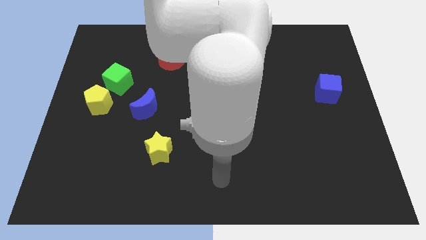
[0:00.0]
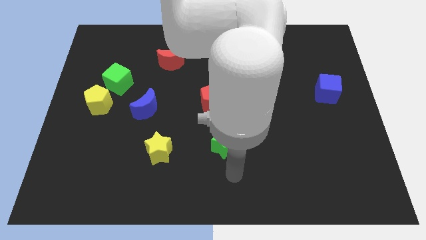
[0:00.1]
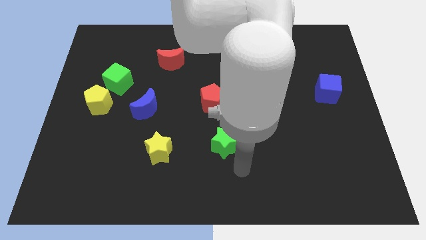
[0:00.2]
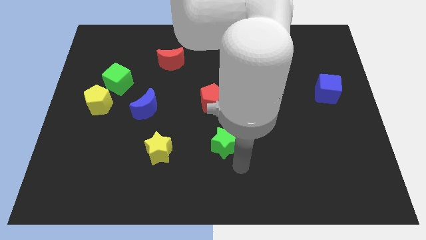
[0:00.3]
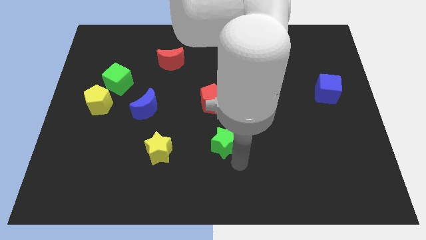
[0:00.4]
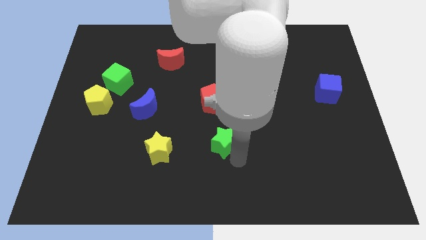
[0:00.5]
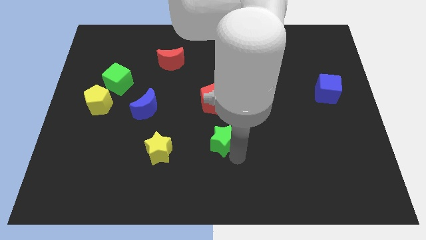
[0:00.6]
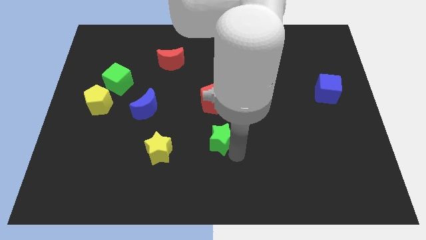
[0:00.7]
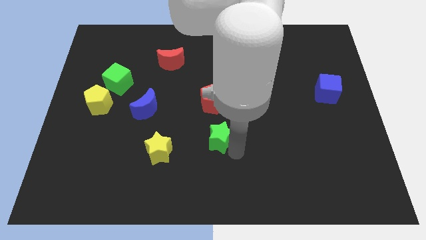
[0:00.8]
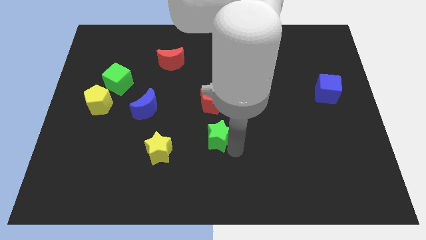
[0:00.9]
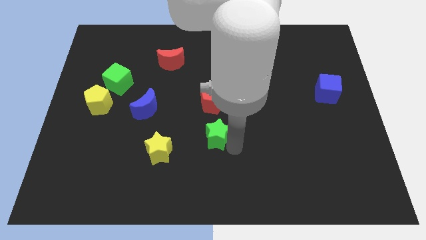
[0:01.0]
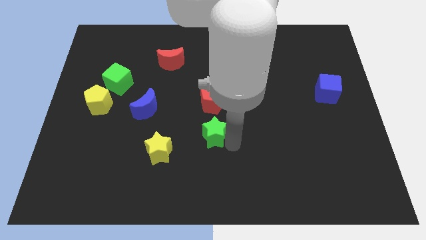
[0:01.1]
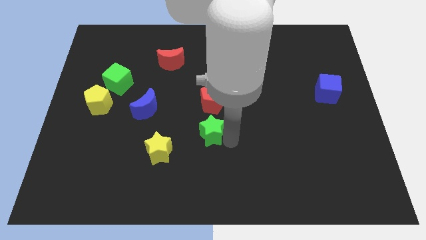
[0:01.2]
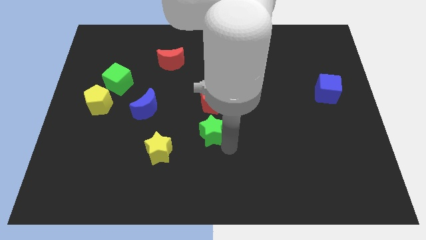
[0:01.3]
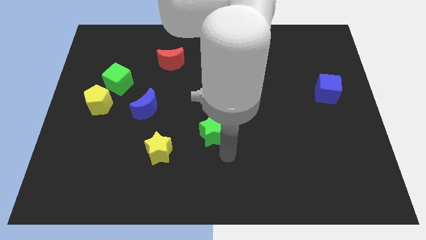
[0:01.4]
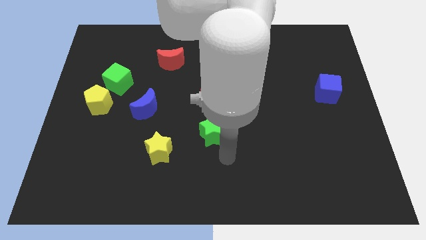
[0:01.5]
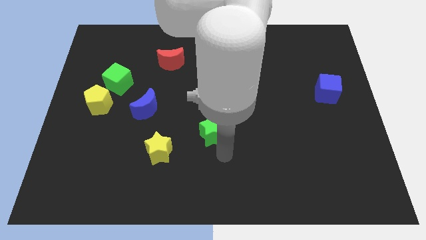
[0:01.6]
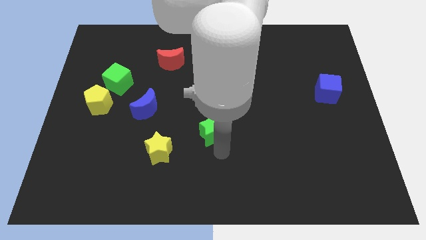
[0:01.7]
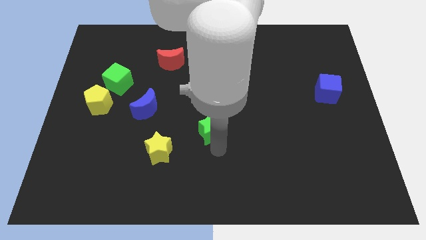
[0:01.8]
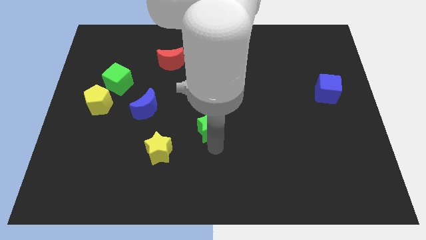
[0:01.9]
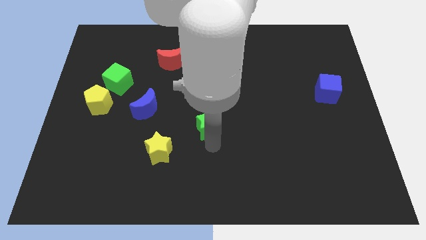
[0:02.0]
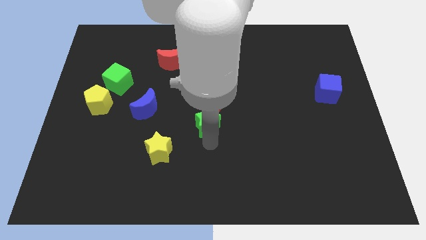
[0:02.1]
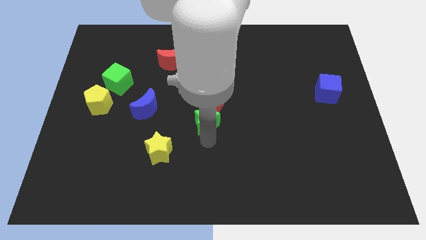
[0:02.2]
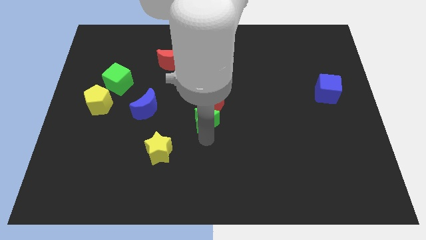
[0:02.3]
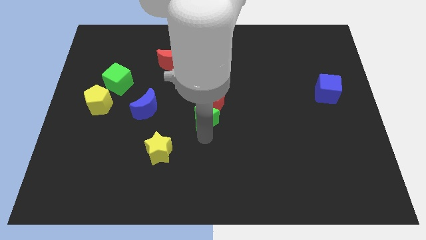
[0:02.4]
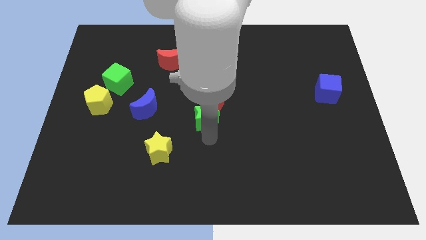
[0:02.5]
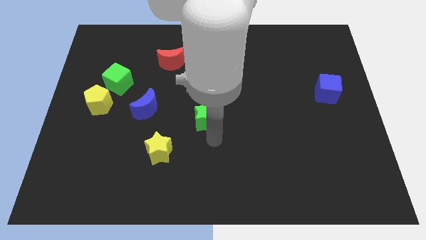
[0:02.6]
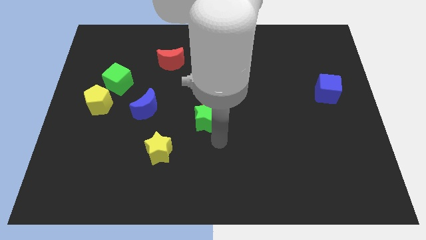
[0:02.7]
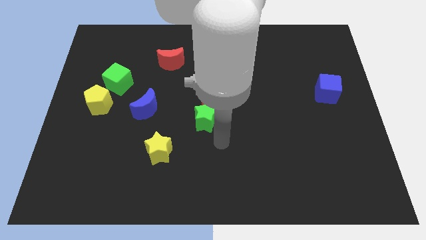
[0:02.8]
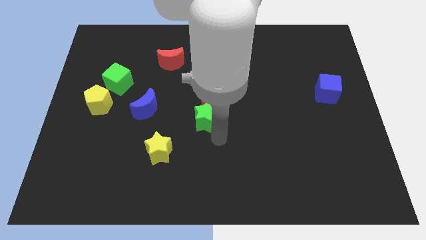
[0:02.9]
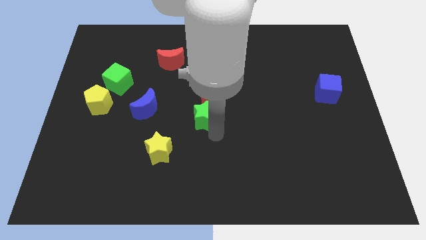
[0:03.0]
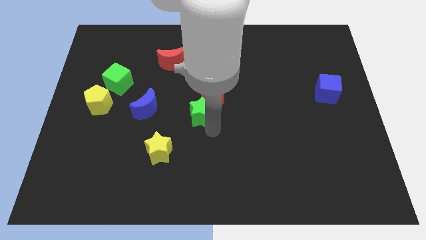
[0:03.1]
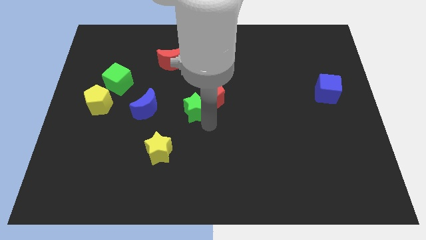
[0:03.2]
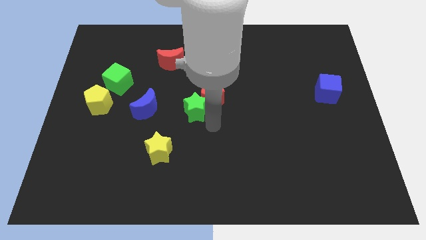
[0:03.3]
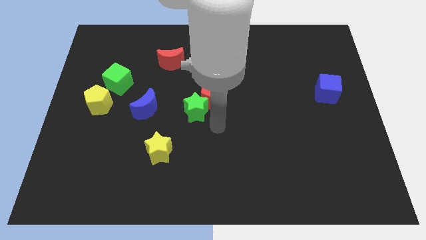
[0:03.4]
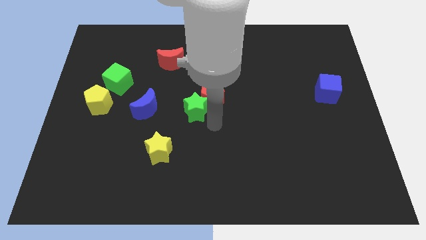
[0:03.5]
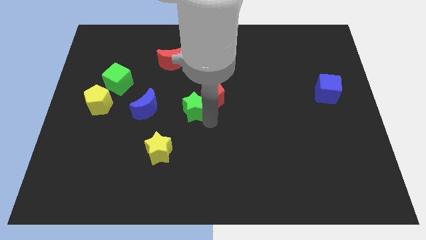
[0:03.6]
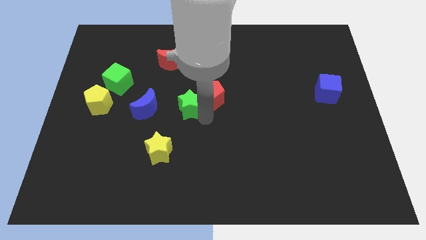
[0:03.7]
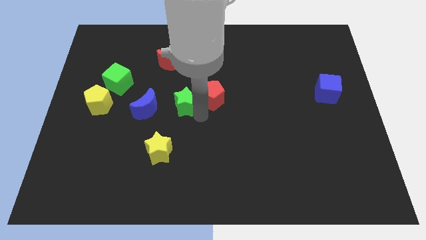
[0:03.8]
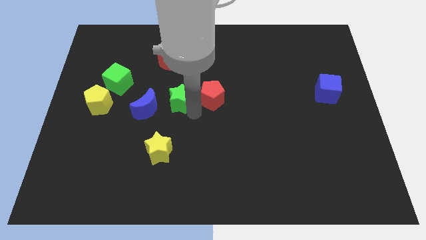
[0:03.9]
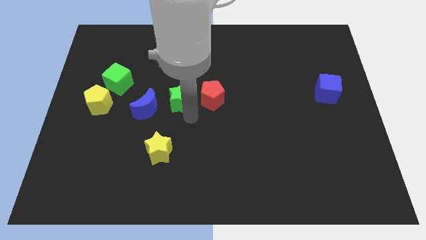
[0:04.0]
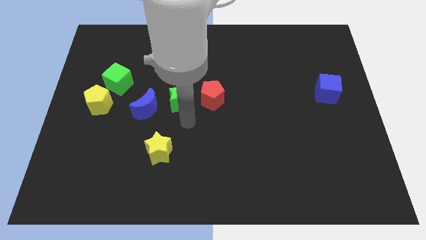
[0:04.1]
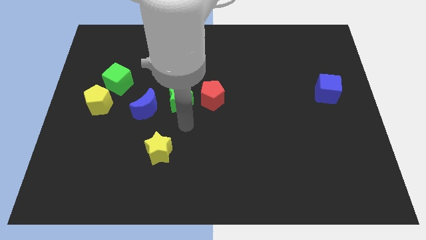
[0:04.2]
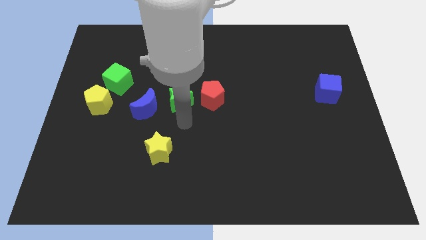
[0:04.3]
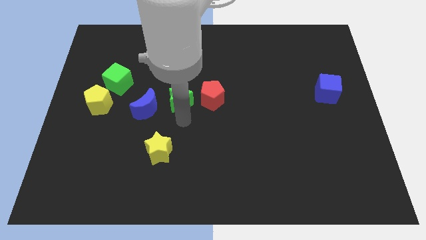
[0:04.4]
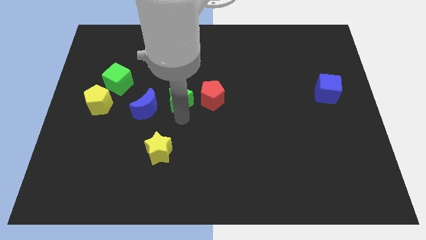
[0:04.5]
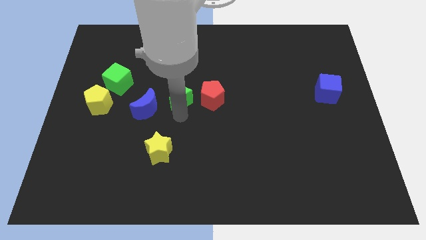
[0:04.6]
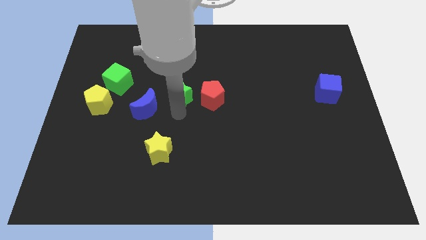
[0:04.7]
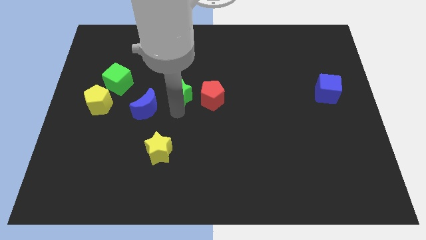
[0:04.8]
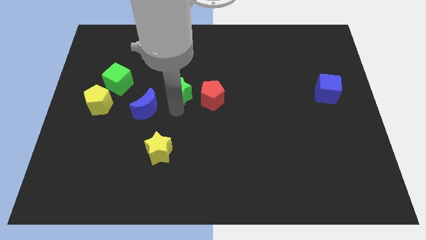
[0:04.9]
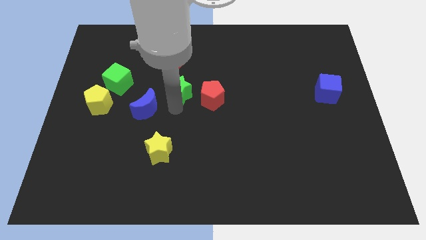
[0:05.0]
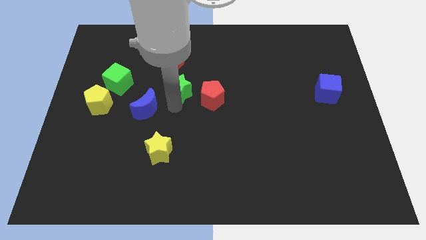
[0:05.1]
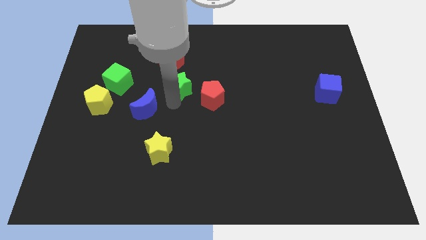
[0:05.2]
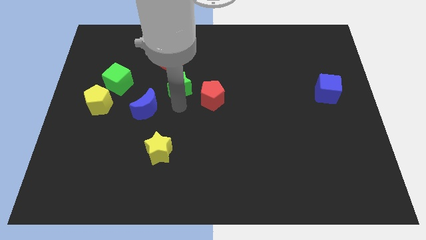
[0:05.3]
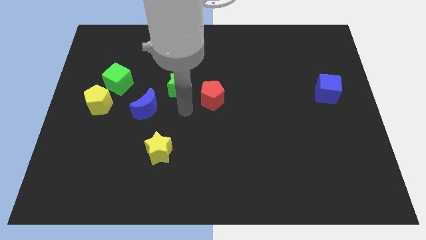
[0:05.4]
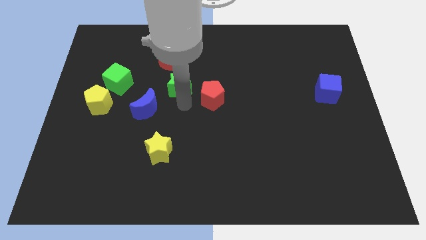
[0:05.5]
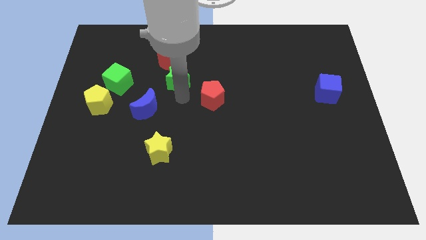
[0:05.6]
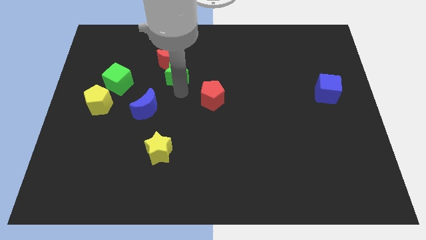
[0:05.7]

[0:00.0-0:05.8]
move the green star towards the red moon

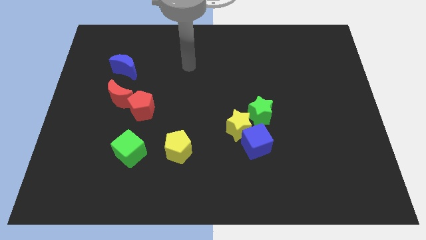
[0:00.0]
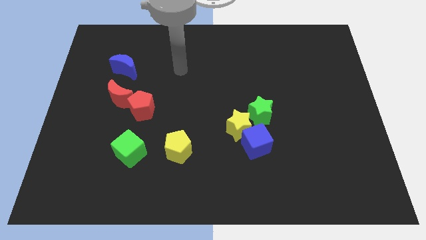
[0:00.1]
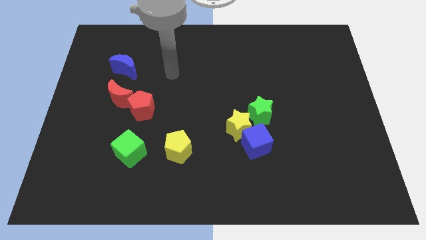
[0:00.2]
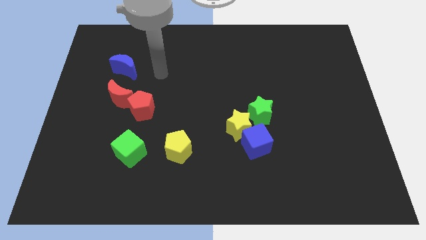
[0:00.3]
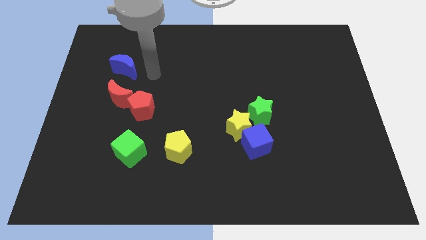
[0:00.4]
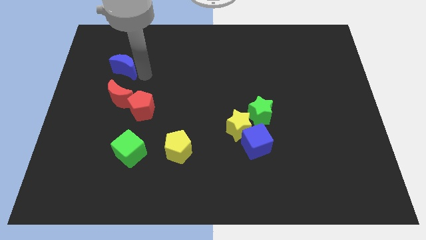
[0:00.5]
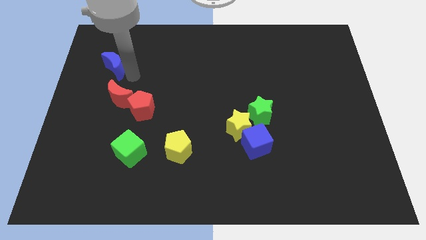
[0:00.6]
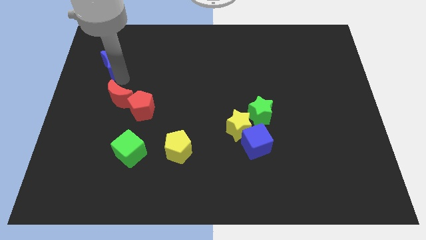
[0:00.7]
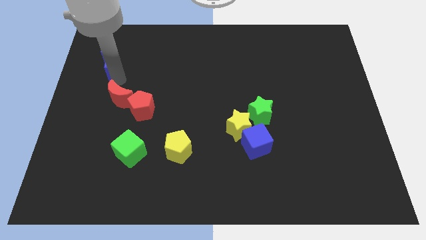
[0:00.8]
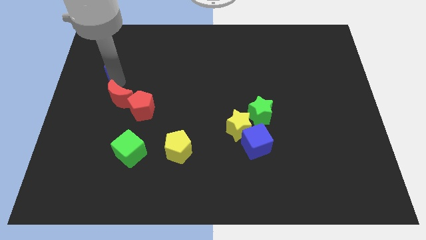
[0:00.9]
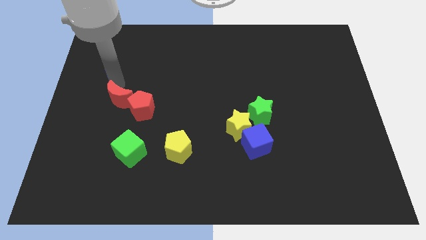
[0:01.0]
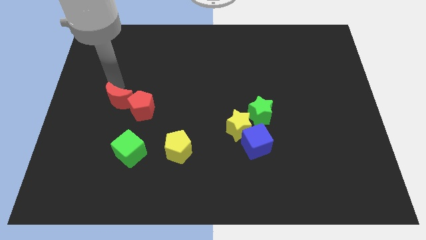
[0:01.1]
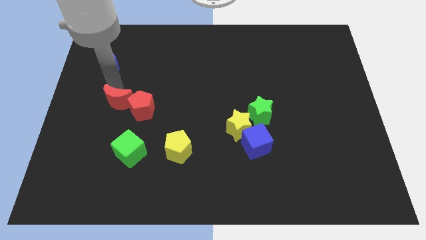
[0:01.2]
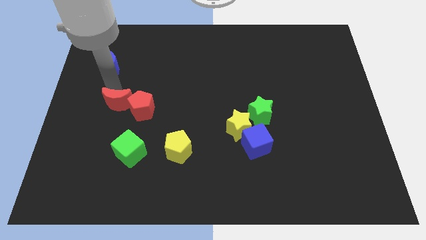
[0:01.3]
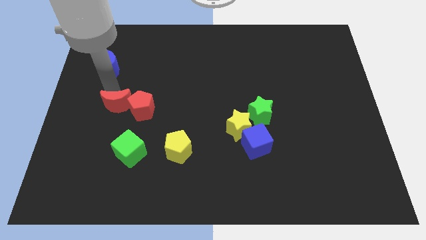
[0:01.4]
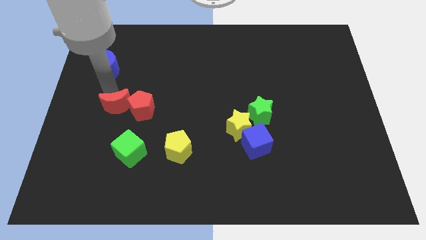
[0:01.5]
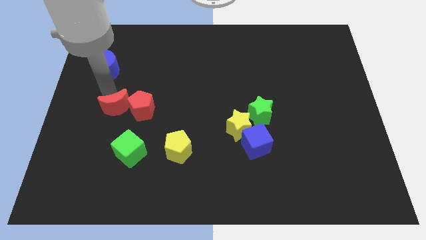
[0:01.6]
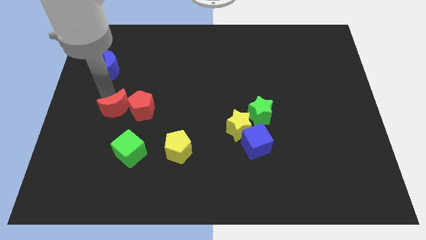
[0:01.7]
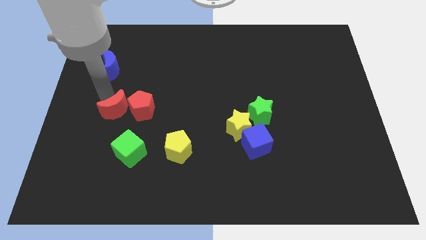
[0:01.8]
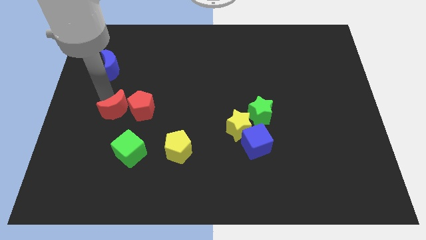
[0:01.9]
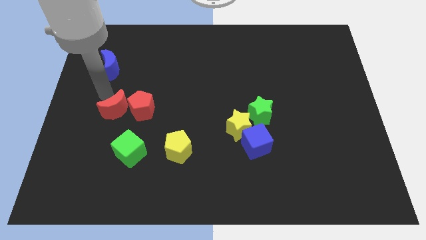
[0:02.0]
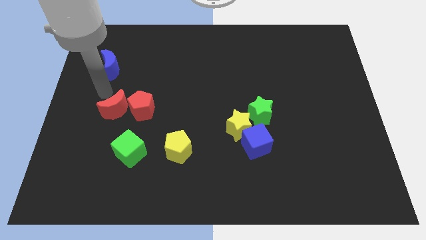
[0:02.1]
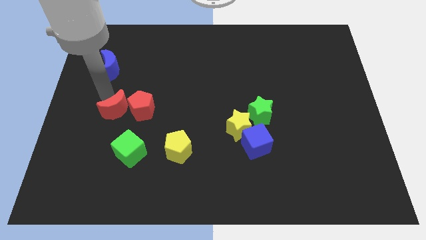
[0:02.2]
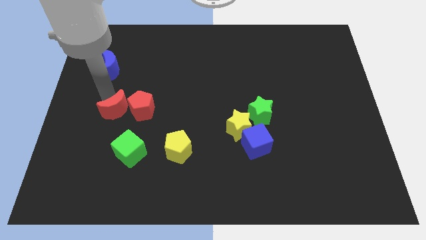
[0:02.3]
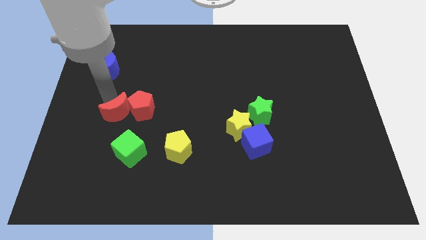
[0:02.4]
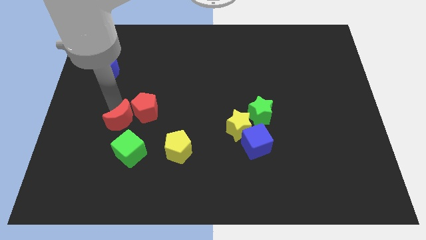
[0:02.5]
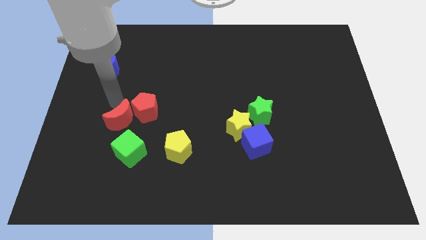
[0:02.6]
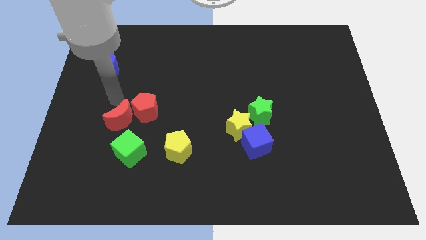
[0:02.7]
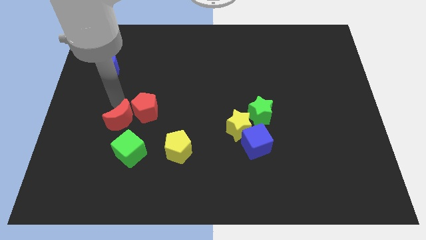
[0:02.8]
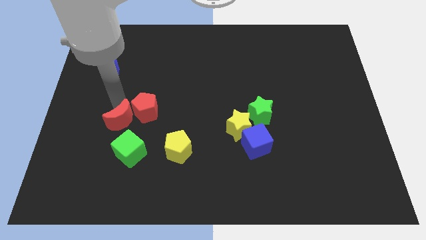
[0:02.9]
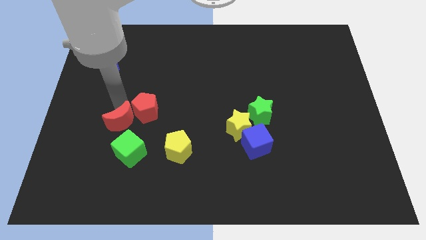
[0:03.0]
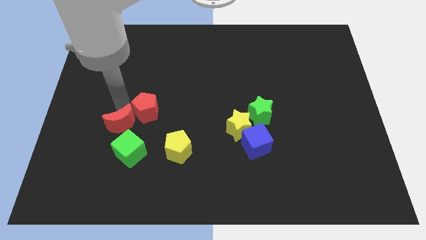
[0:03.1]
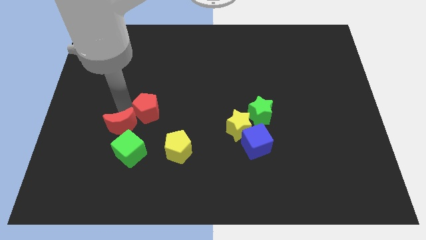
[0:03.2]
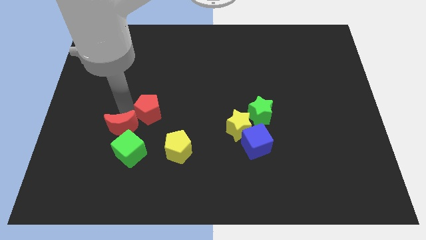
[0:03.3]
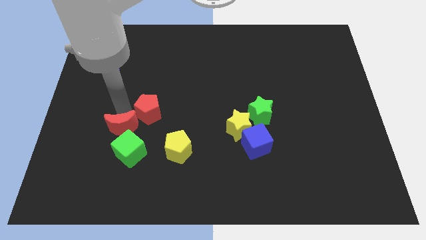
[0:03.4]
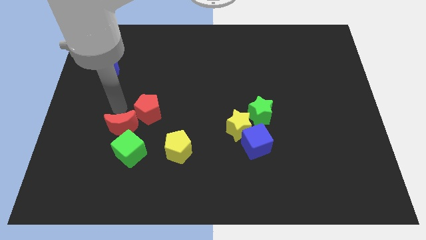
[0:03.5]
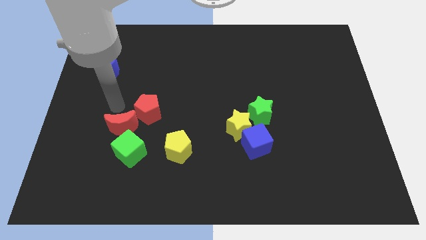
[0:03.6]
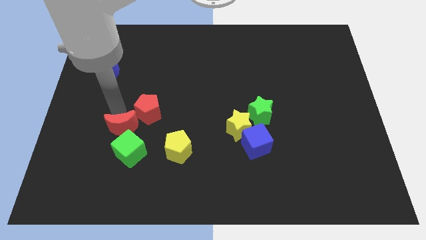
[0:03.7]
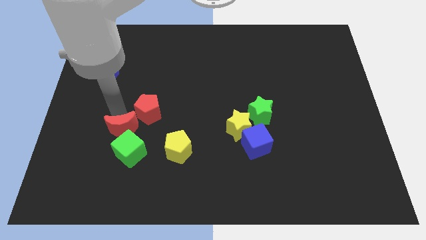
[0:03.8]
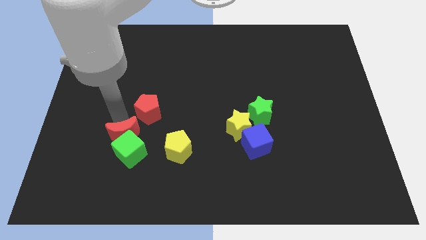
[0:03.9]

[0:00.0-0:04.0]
put the red moon to the green cube
